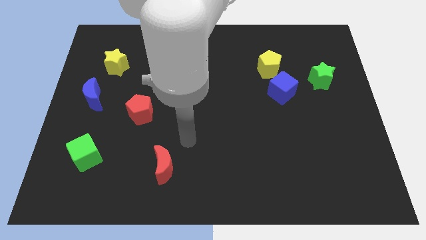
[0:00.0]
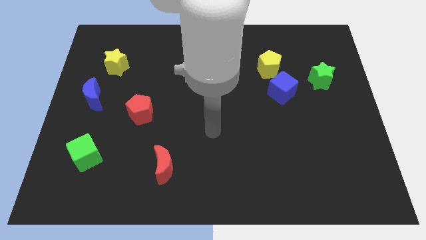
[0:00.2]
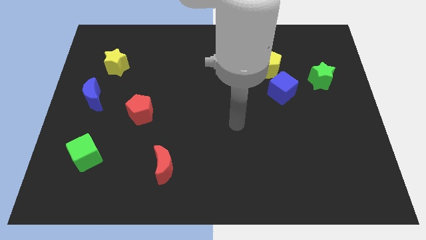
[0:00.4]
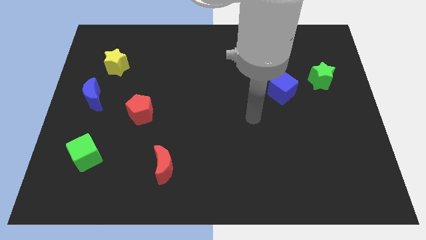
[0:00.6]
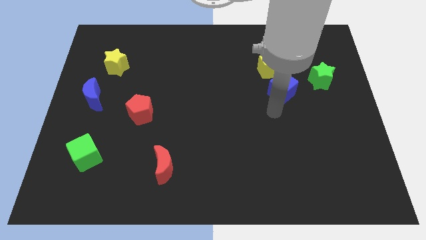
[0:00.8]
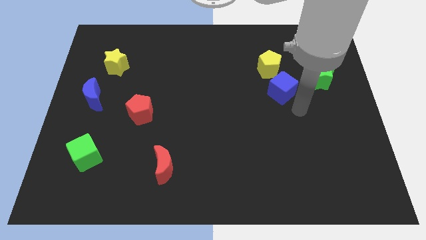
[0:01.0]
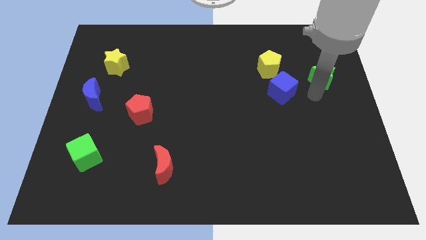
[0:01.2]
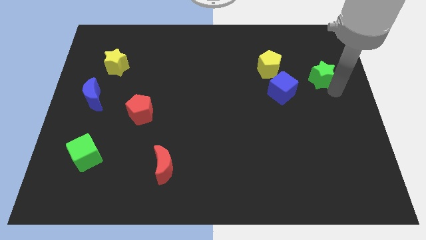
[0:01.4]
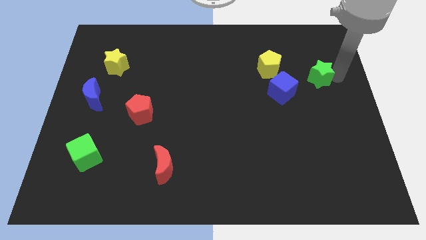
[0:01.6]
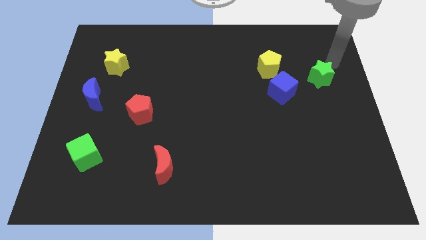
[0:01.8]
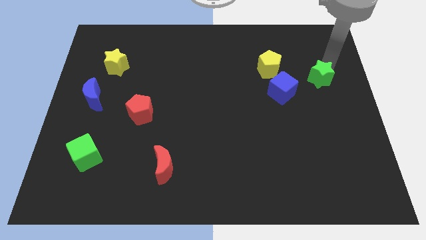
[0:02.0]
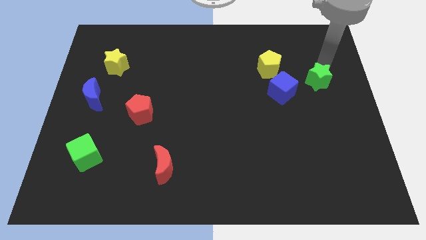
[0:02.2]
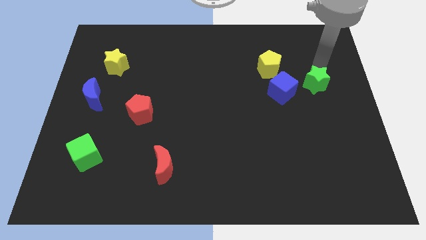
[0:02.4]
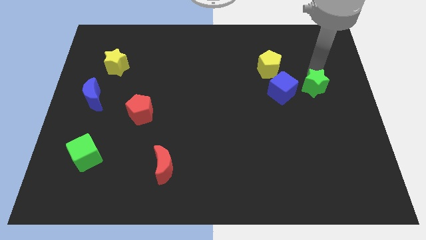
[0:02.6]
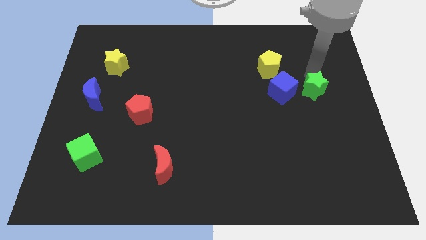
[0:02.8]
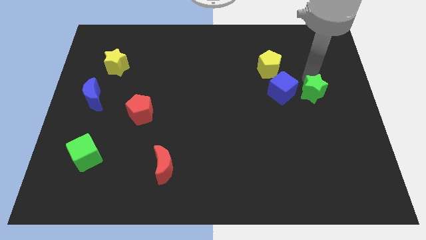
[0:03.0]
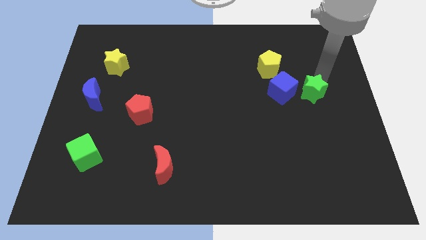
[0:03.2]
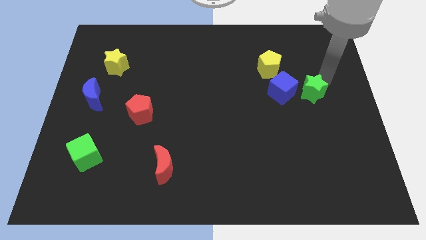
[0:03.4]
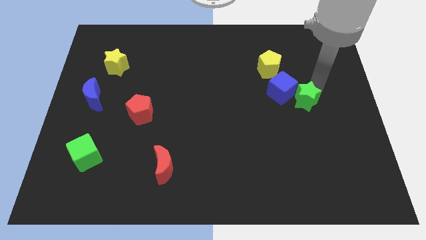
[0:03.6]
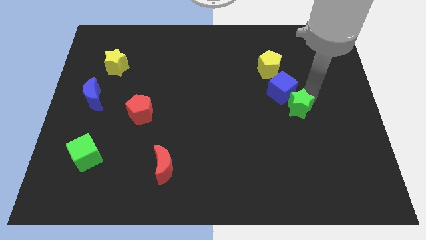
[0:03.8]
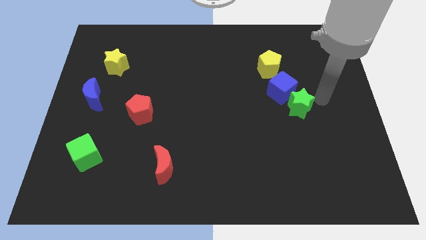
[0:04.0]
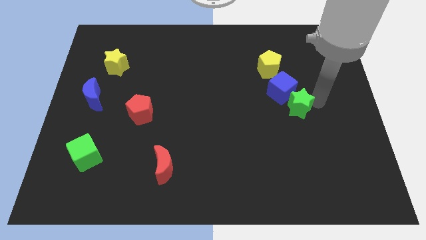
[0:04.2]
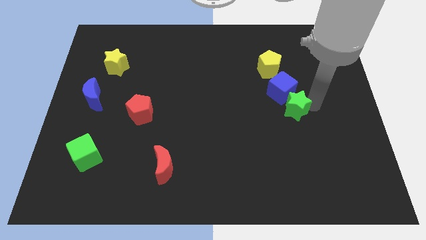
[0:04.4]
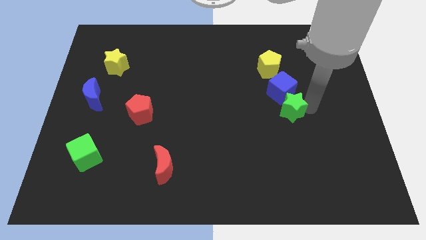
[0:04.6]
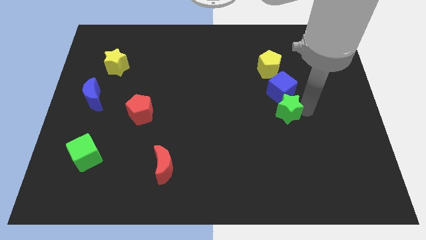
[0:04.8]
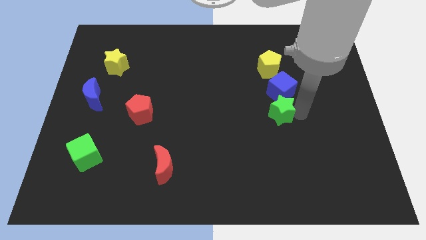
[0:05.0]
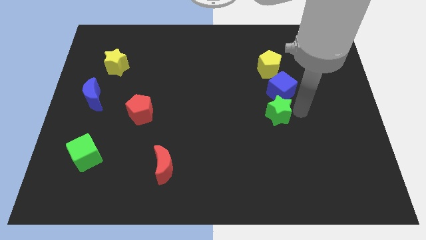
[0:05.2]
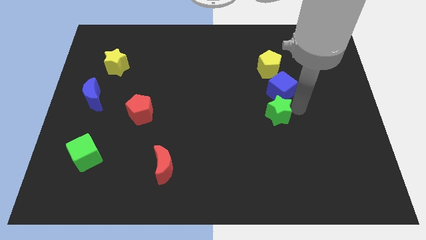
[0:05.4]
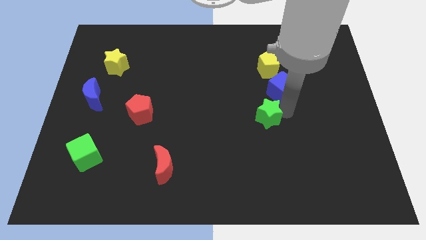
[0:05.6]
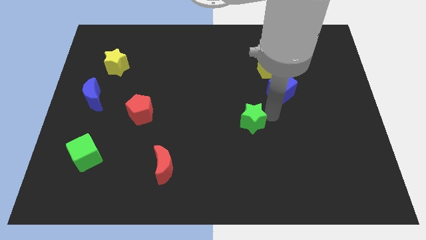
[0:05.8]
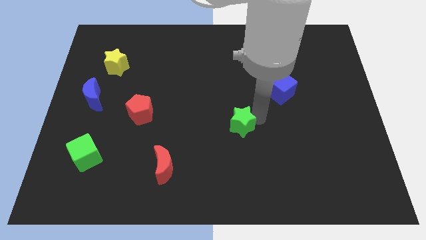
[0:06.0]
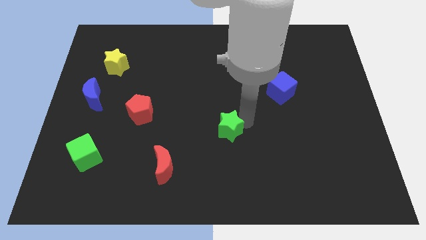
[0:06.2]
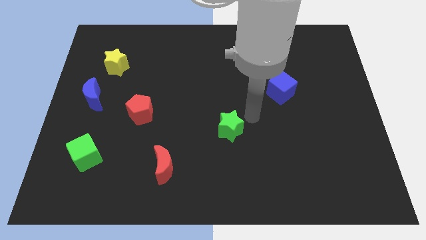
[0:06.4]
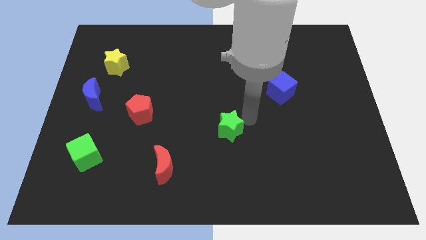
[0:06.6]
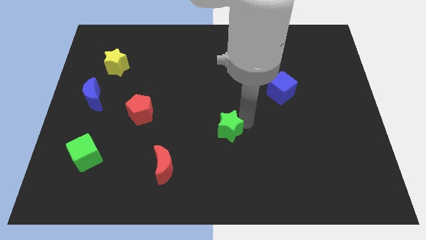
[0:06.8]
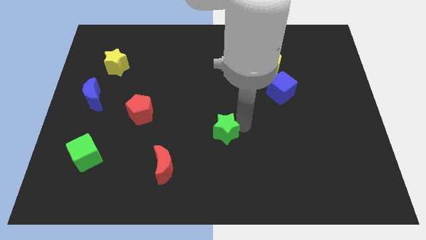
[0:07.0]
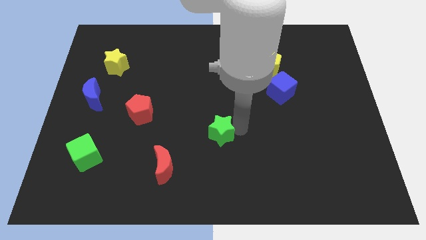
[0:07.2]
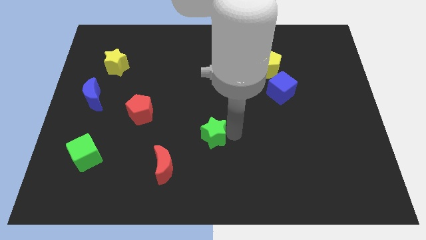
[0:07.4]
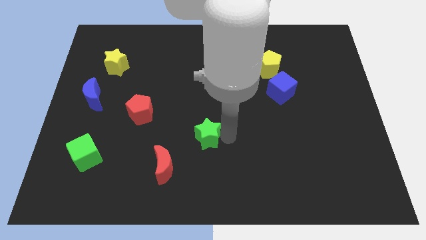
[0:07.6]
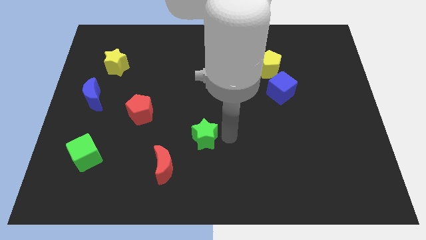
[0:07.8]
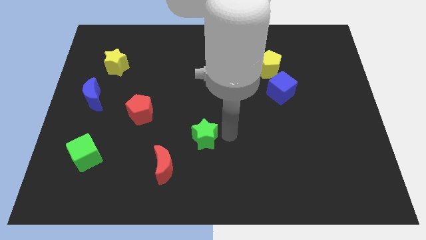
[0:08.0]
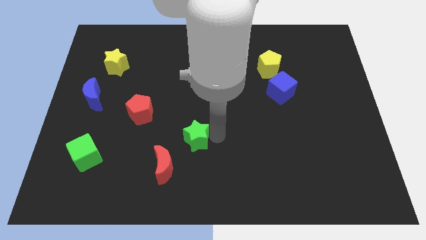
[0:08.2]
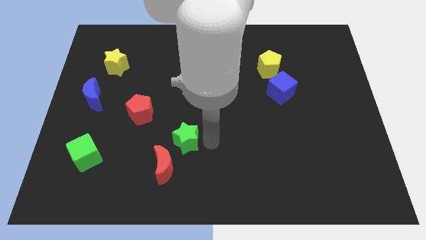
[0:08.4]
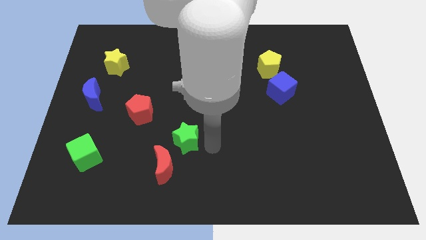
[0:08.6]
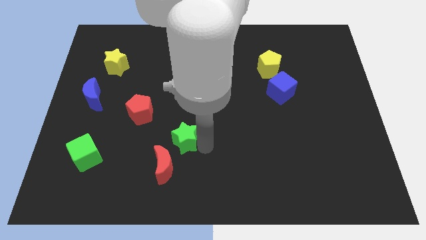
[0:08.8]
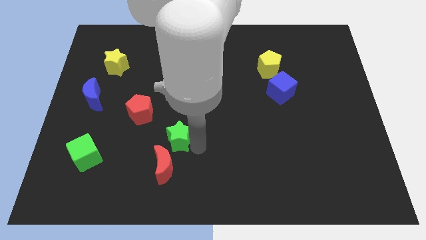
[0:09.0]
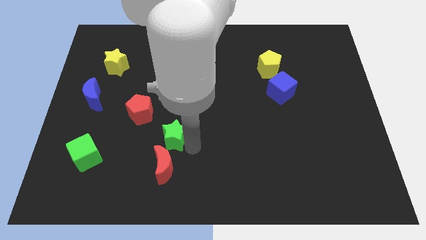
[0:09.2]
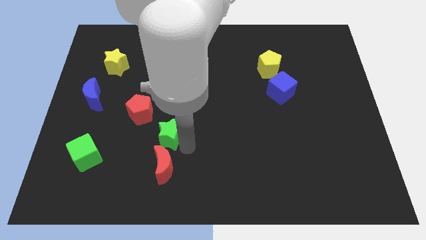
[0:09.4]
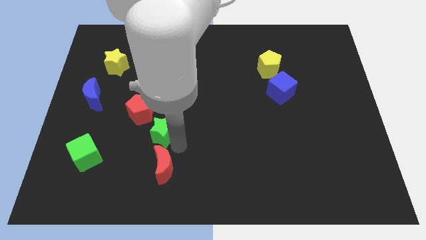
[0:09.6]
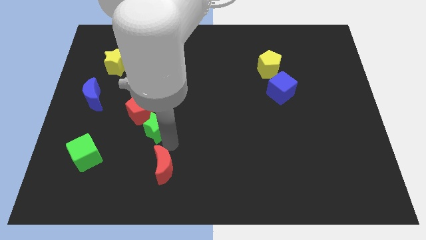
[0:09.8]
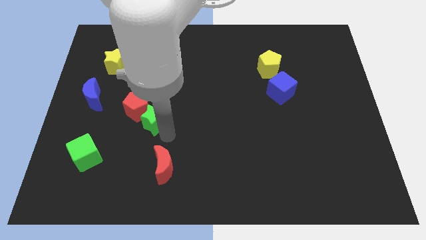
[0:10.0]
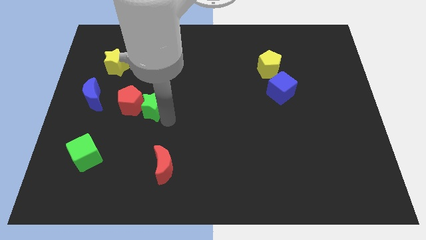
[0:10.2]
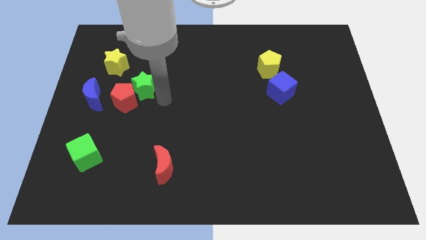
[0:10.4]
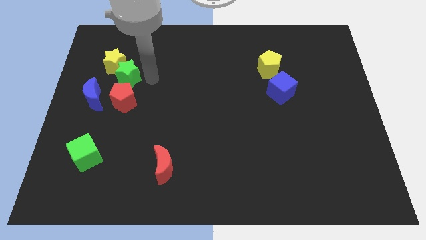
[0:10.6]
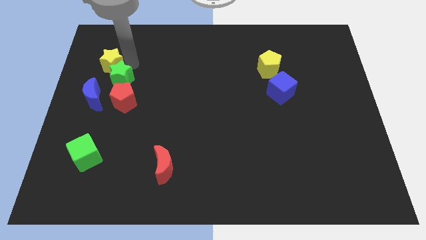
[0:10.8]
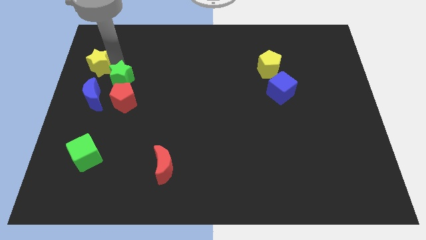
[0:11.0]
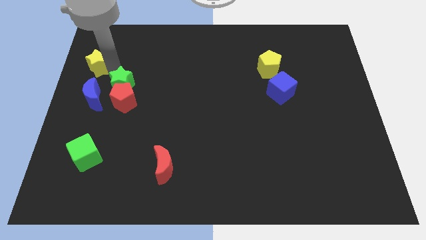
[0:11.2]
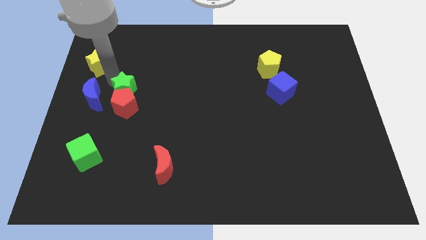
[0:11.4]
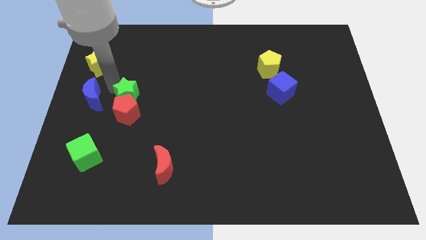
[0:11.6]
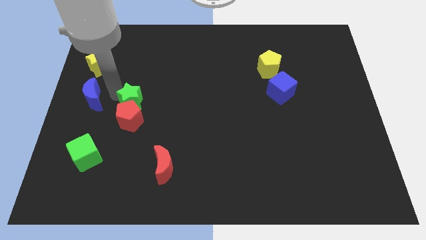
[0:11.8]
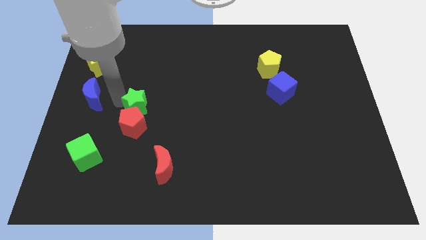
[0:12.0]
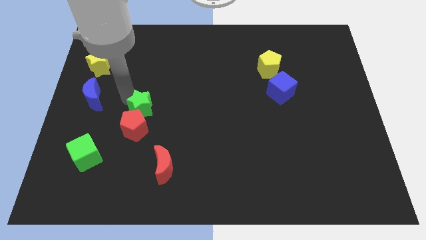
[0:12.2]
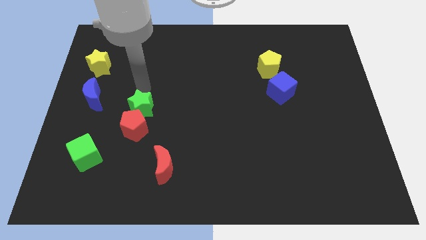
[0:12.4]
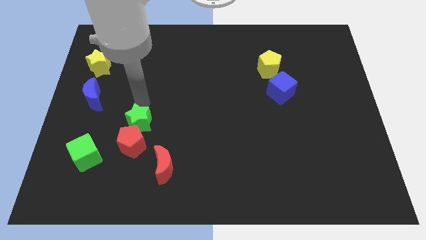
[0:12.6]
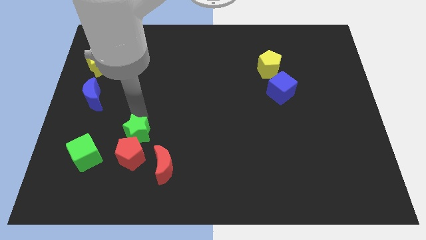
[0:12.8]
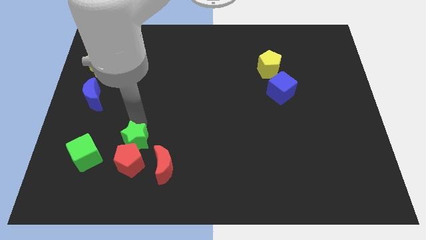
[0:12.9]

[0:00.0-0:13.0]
push the green star to the right of the green cube
